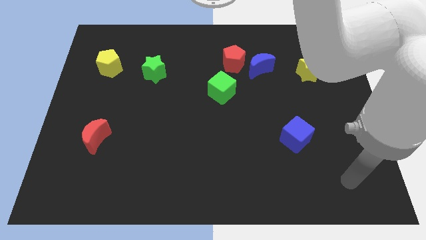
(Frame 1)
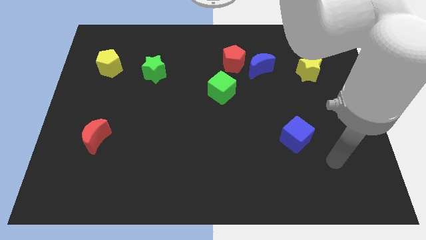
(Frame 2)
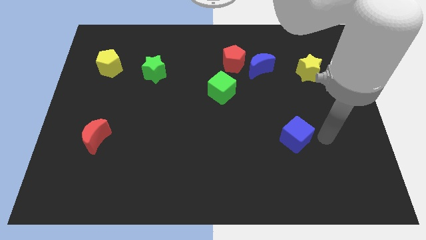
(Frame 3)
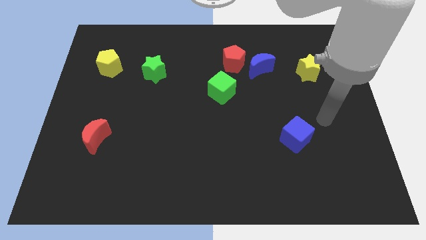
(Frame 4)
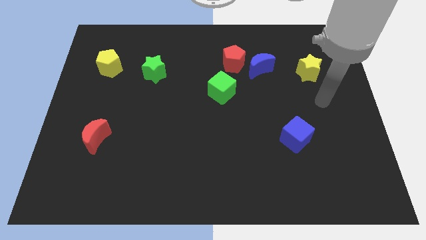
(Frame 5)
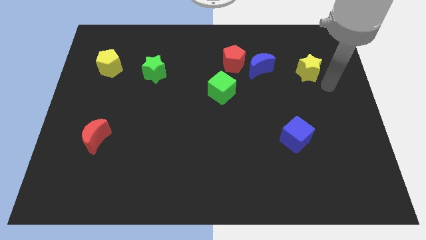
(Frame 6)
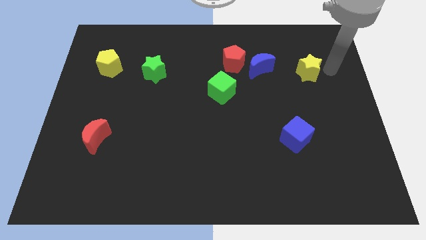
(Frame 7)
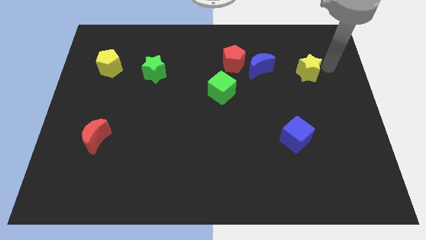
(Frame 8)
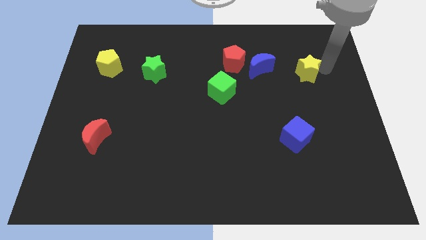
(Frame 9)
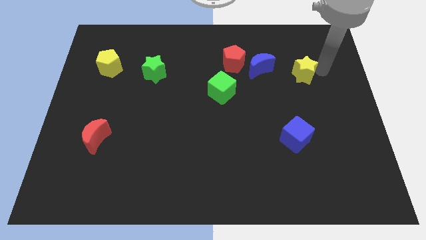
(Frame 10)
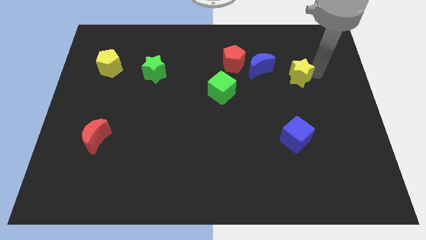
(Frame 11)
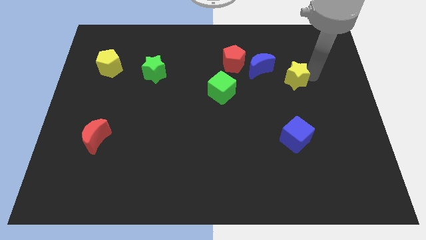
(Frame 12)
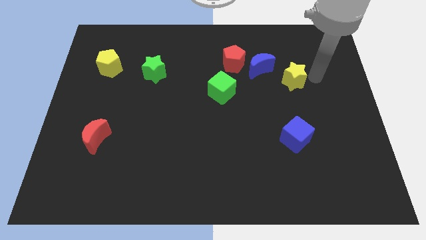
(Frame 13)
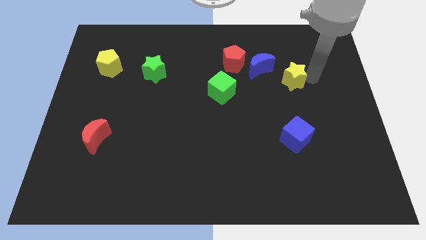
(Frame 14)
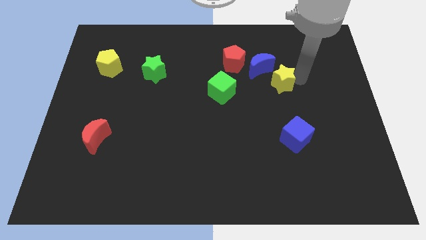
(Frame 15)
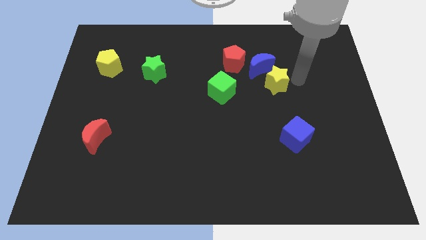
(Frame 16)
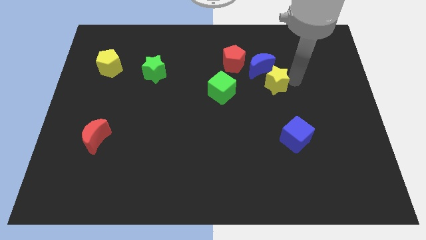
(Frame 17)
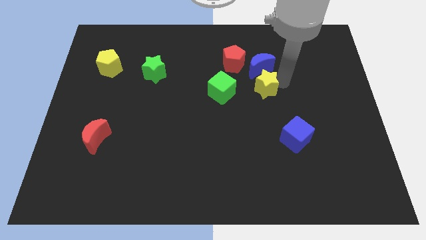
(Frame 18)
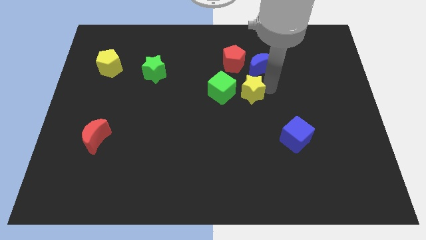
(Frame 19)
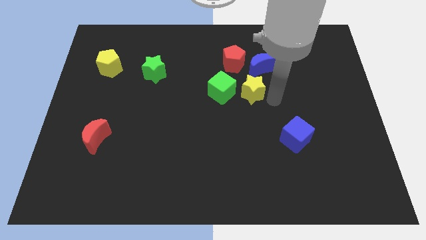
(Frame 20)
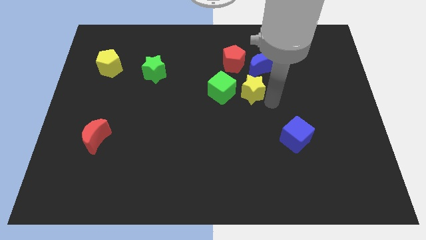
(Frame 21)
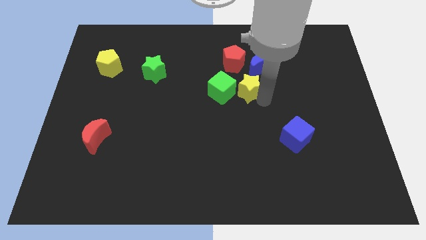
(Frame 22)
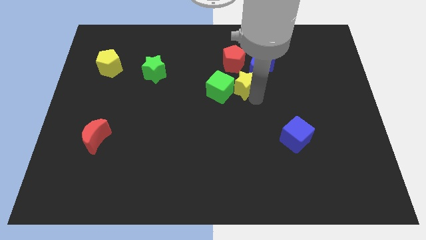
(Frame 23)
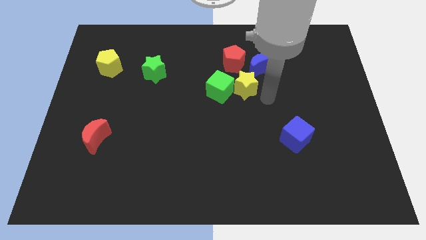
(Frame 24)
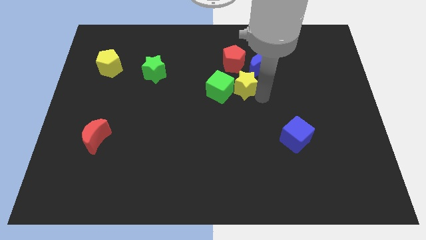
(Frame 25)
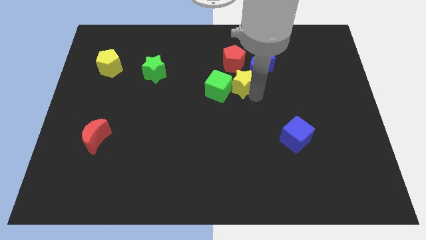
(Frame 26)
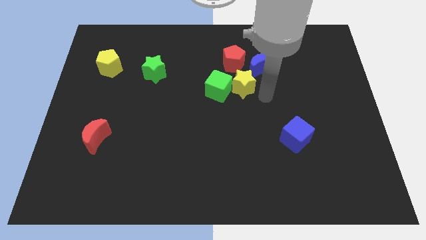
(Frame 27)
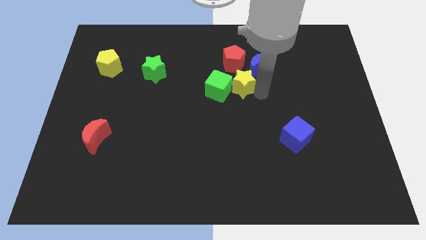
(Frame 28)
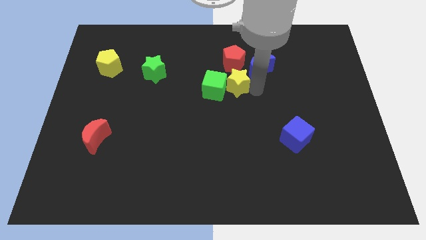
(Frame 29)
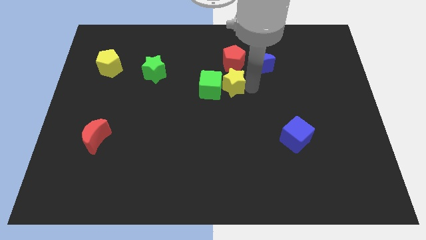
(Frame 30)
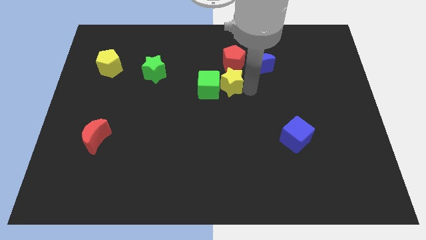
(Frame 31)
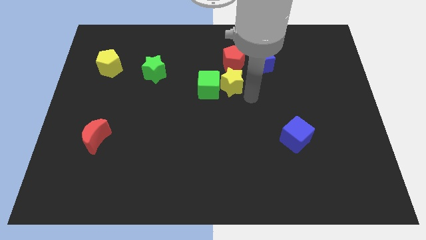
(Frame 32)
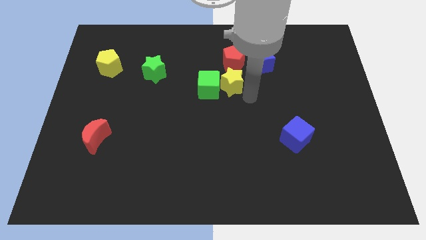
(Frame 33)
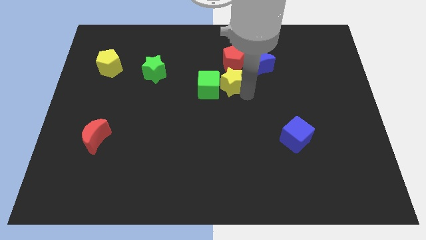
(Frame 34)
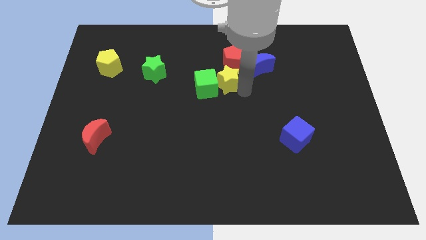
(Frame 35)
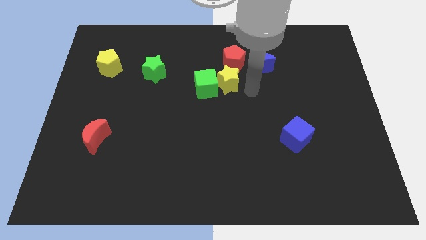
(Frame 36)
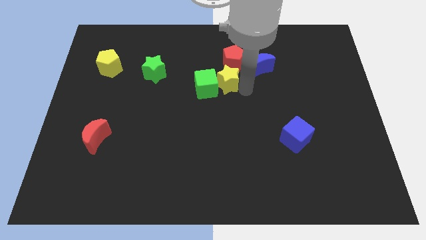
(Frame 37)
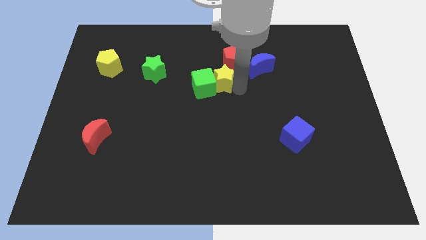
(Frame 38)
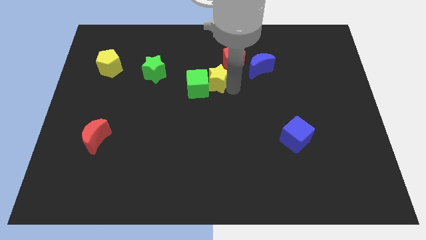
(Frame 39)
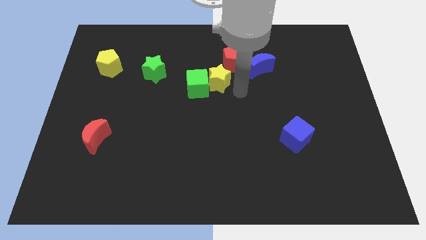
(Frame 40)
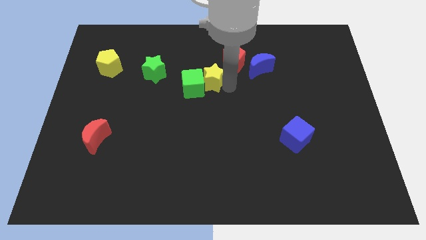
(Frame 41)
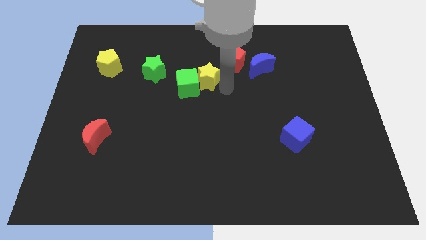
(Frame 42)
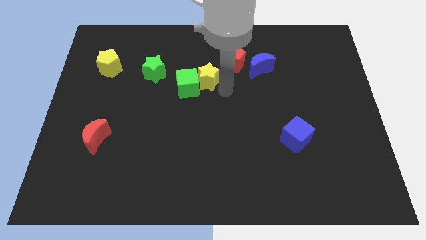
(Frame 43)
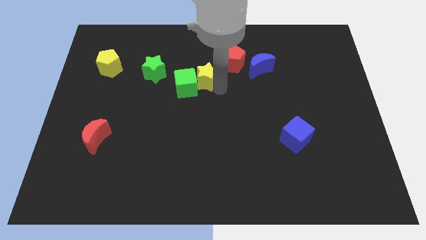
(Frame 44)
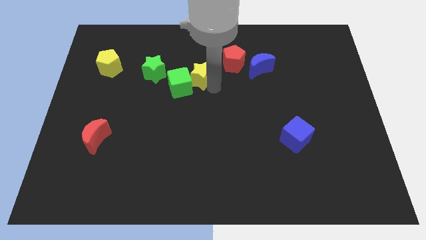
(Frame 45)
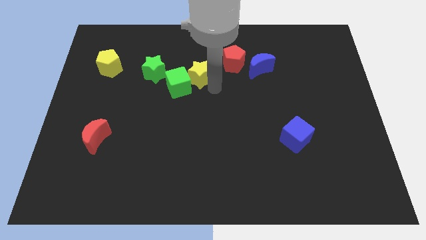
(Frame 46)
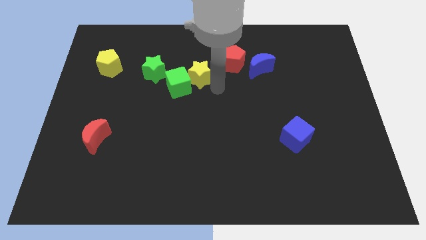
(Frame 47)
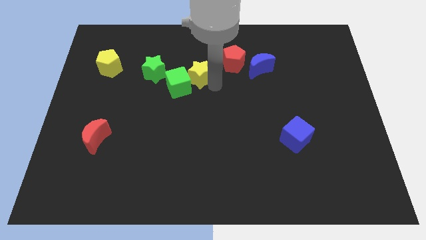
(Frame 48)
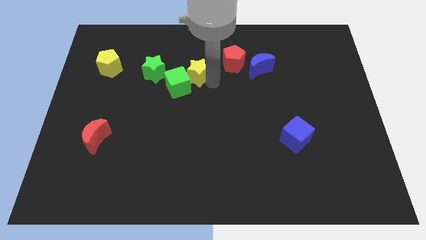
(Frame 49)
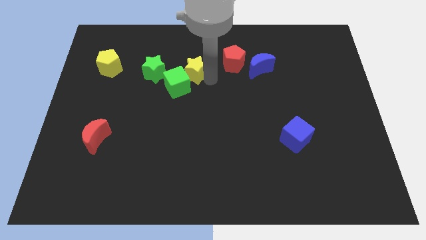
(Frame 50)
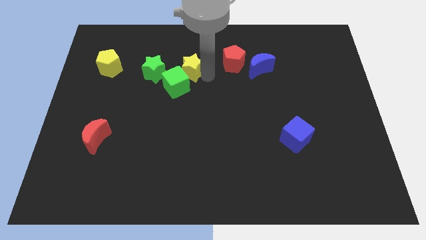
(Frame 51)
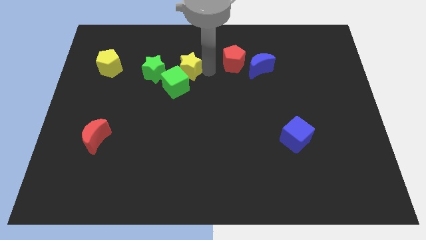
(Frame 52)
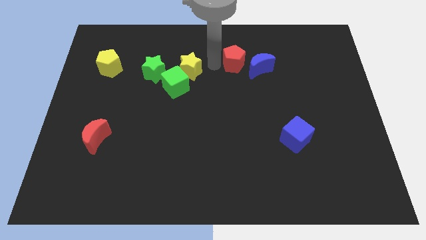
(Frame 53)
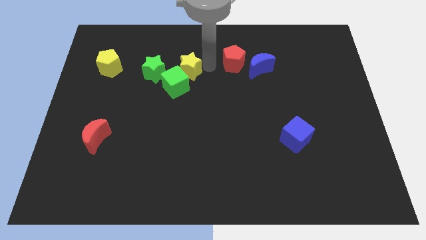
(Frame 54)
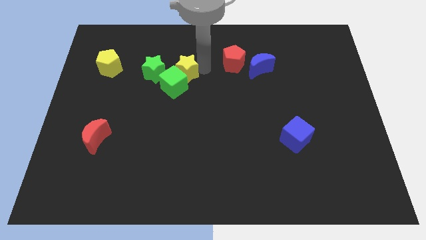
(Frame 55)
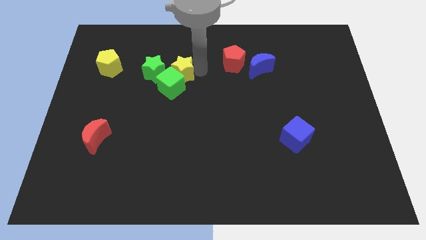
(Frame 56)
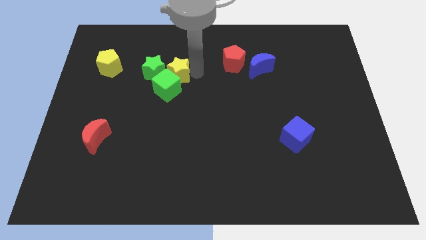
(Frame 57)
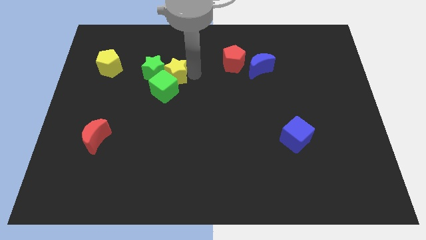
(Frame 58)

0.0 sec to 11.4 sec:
slide the yellow star to the green star

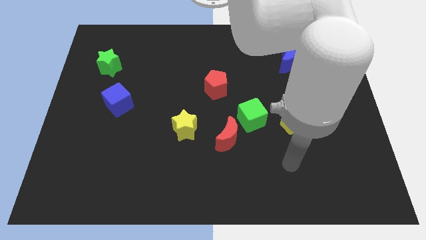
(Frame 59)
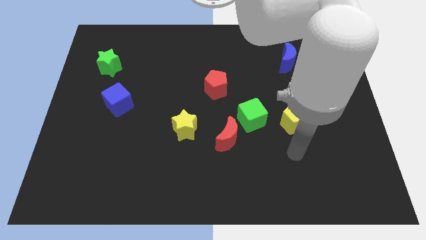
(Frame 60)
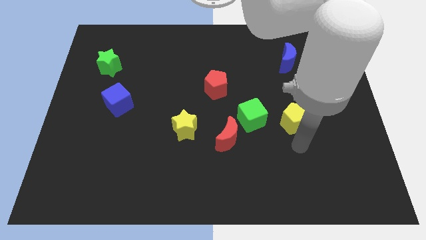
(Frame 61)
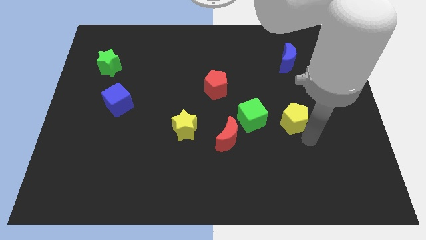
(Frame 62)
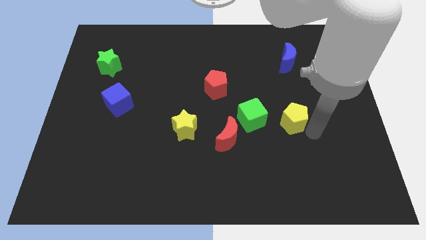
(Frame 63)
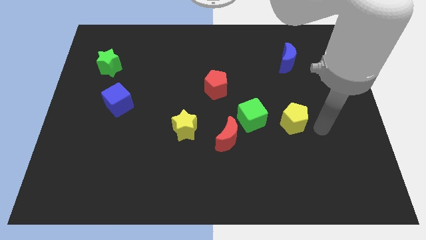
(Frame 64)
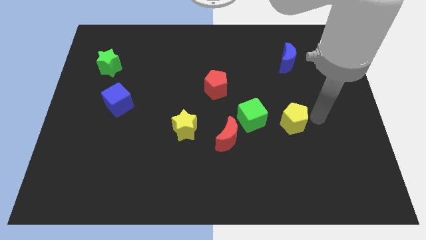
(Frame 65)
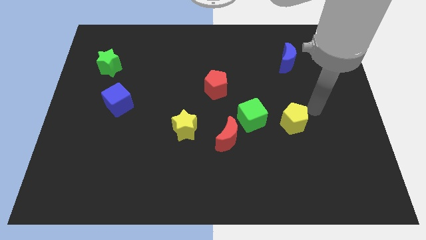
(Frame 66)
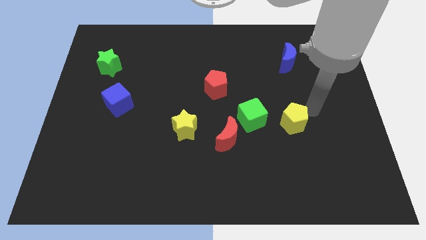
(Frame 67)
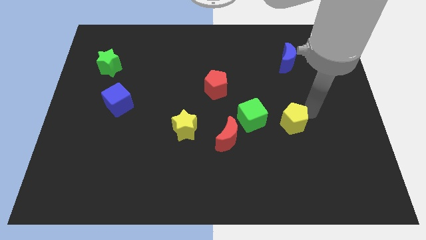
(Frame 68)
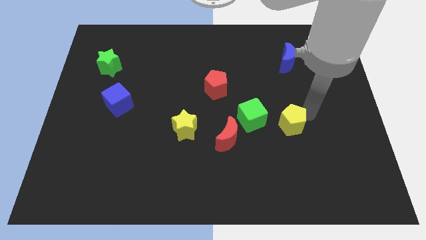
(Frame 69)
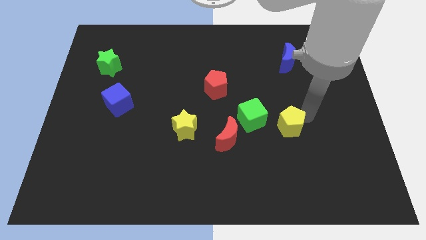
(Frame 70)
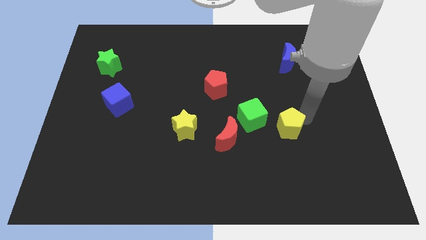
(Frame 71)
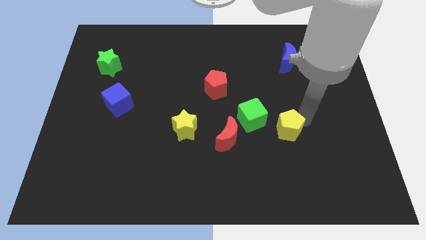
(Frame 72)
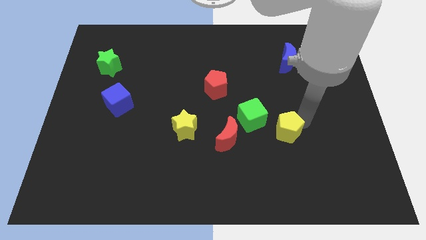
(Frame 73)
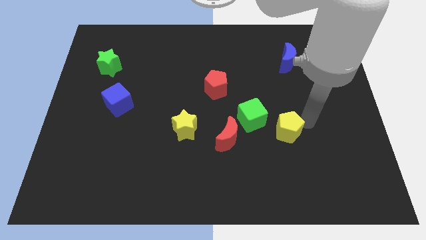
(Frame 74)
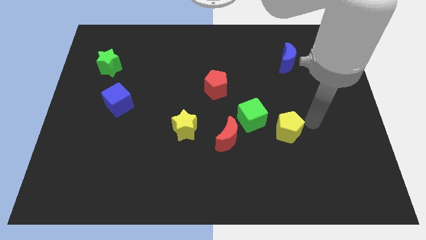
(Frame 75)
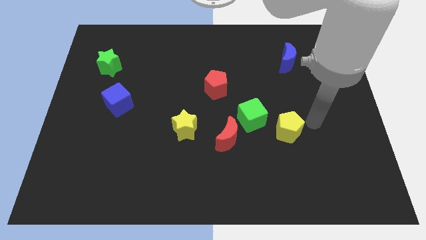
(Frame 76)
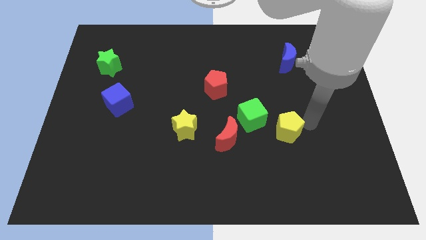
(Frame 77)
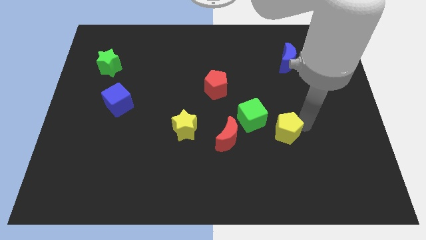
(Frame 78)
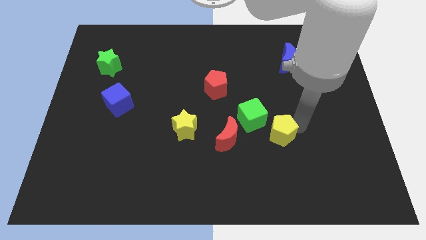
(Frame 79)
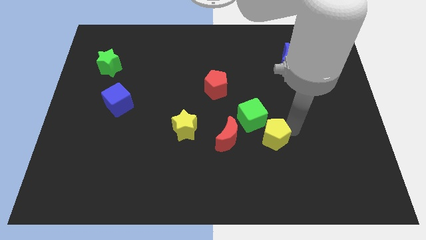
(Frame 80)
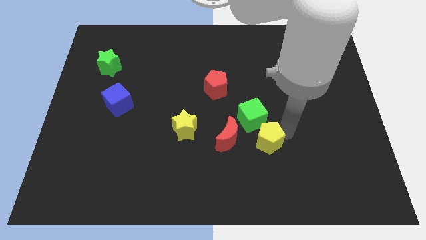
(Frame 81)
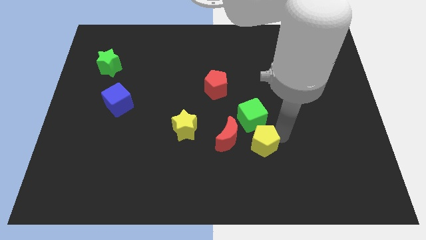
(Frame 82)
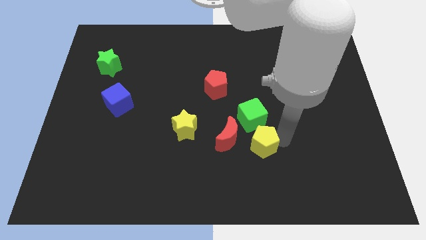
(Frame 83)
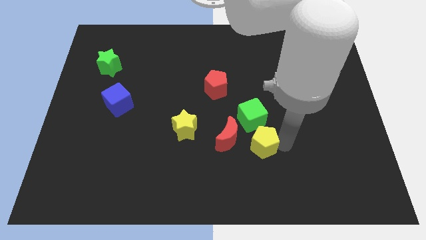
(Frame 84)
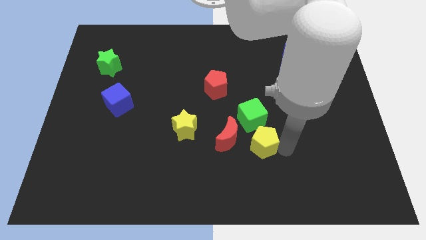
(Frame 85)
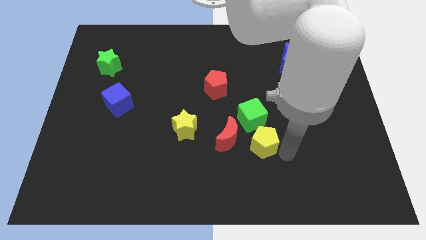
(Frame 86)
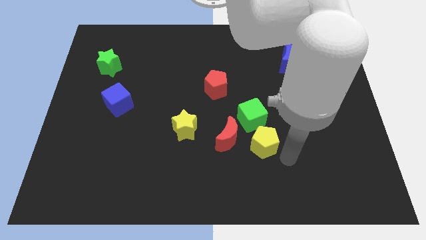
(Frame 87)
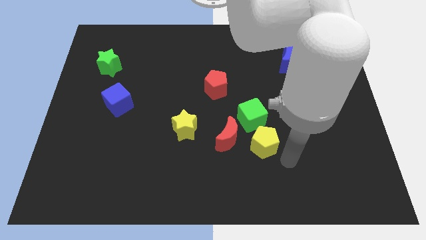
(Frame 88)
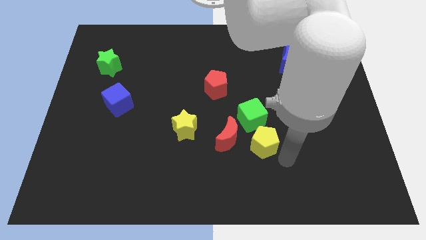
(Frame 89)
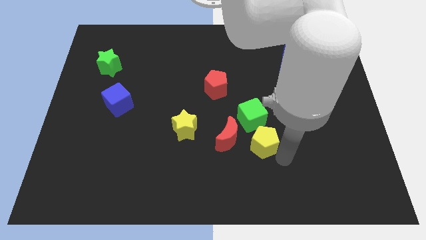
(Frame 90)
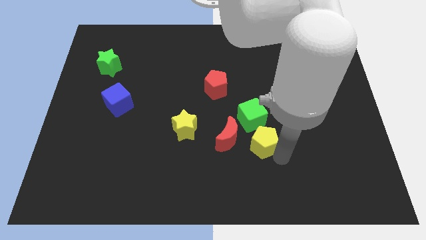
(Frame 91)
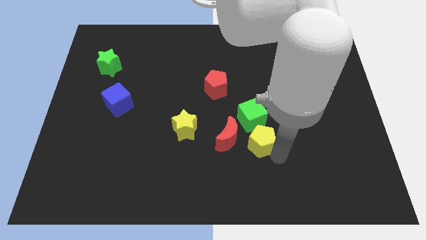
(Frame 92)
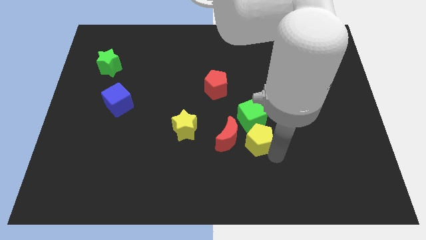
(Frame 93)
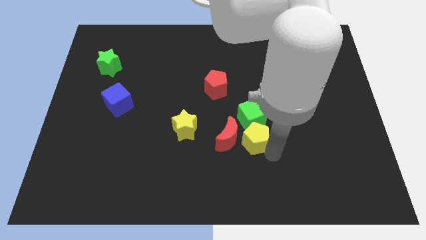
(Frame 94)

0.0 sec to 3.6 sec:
slide the yellow pentagon to the red moon
